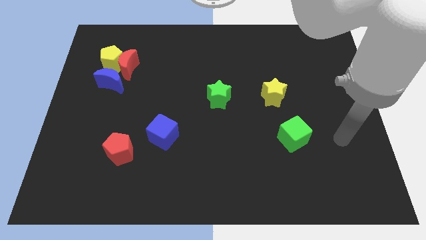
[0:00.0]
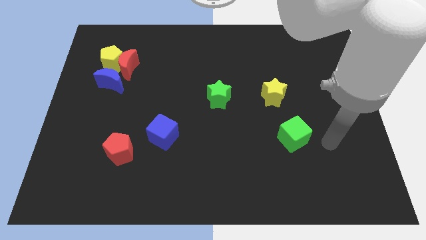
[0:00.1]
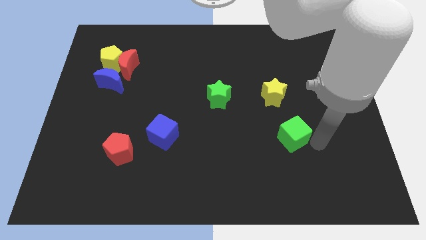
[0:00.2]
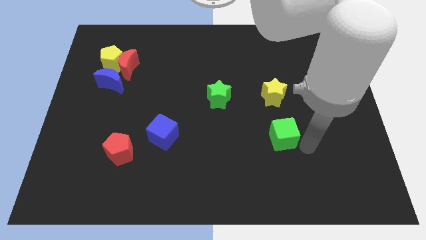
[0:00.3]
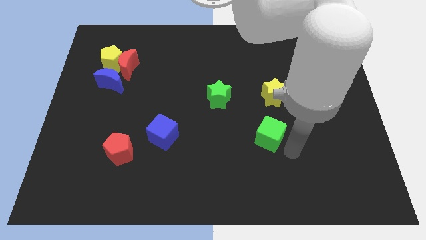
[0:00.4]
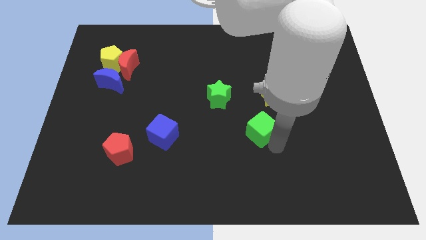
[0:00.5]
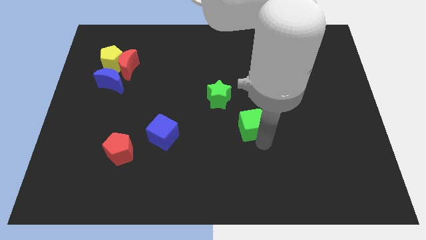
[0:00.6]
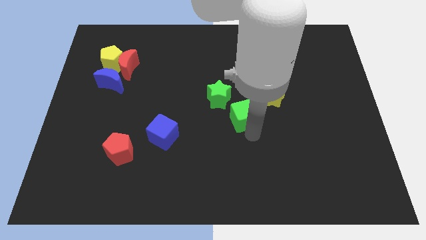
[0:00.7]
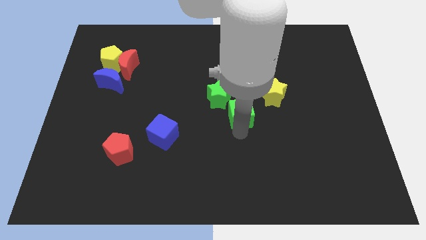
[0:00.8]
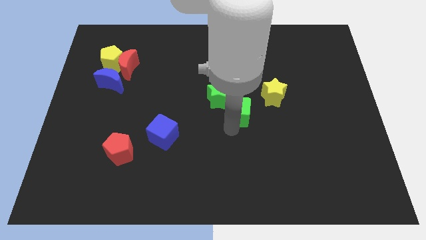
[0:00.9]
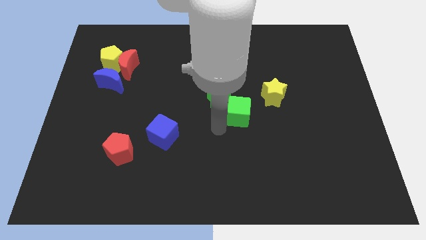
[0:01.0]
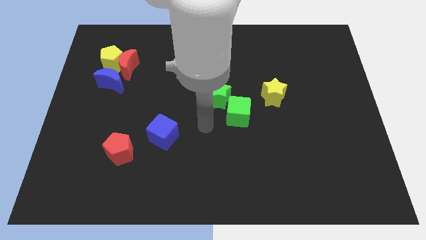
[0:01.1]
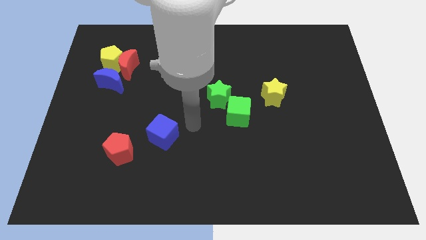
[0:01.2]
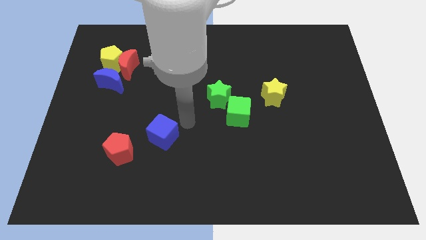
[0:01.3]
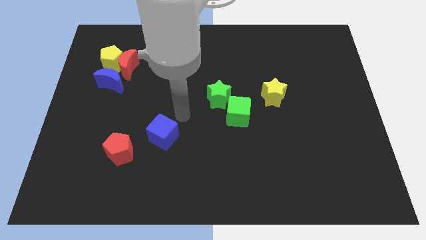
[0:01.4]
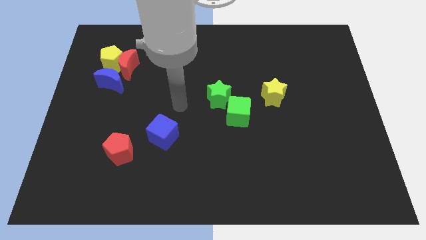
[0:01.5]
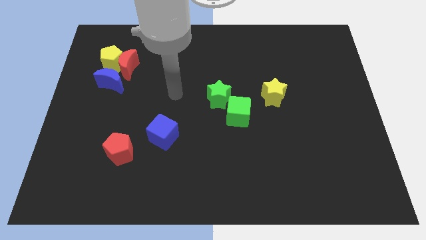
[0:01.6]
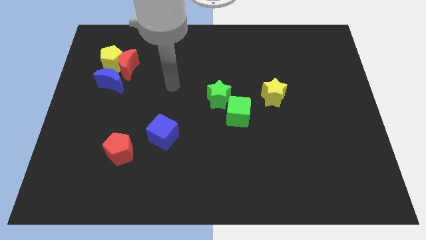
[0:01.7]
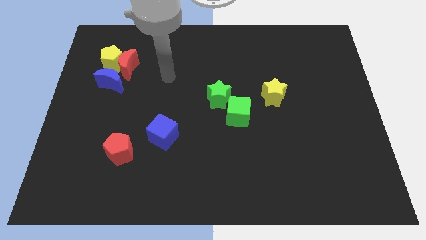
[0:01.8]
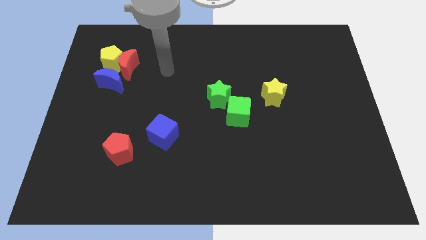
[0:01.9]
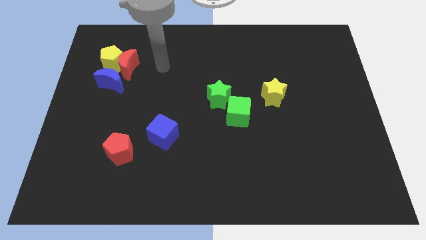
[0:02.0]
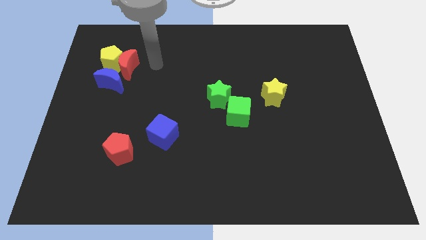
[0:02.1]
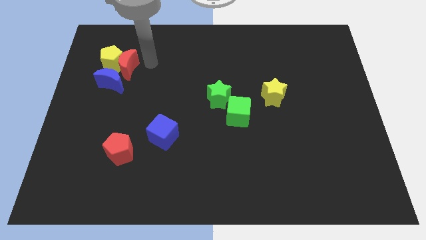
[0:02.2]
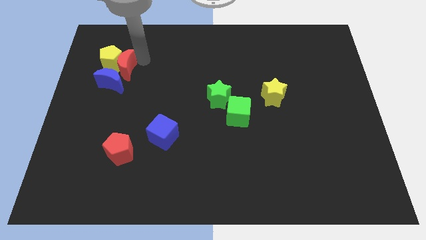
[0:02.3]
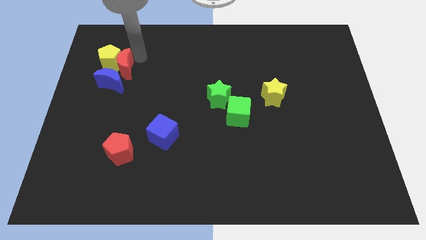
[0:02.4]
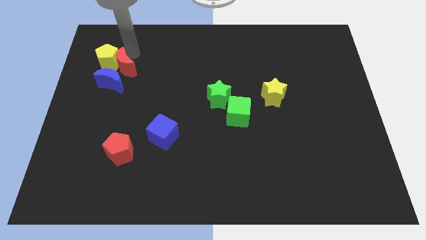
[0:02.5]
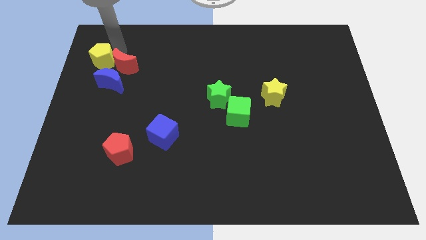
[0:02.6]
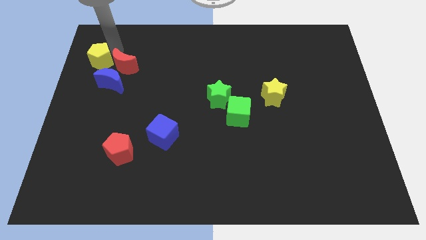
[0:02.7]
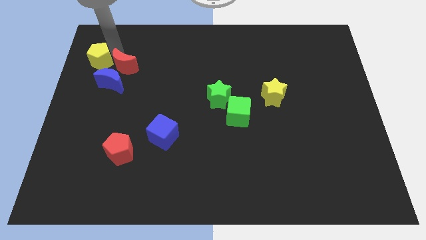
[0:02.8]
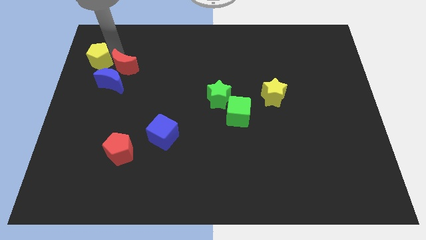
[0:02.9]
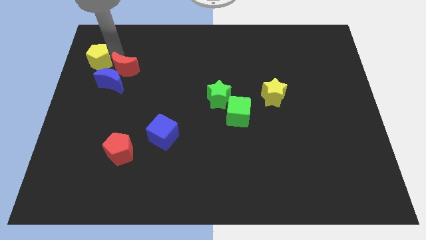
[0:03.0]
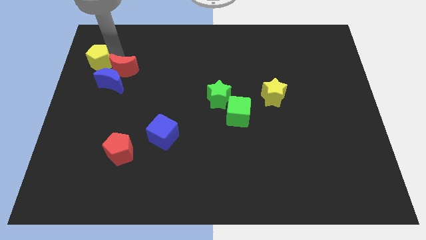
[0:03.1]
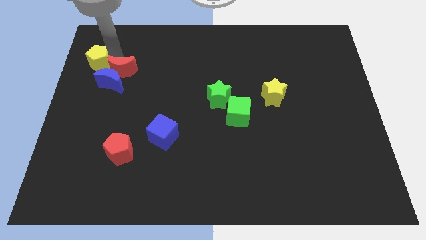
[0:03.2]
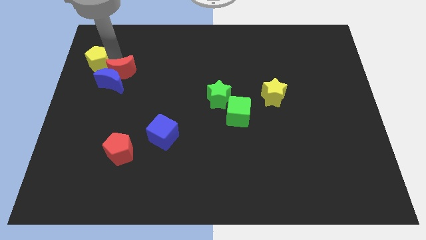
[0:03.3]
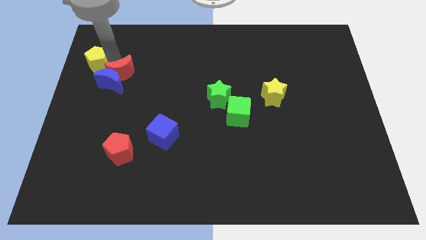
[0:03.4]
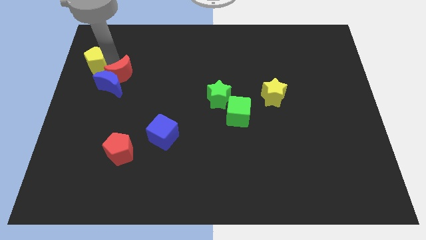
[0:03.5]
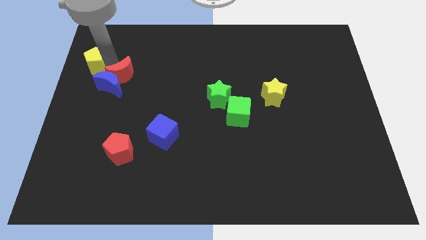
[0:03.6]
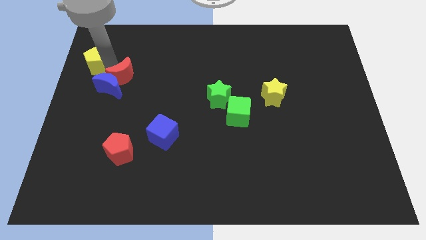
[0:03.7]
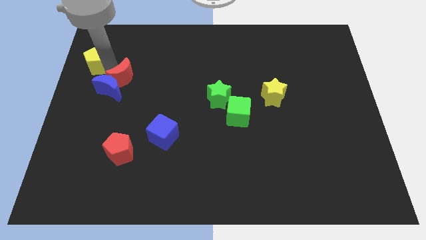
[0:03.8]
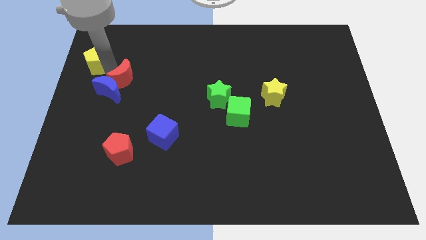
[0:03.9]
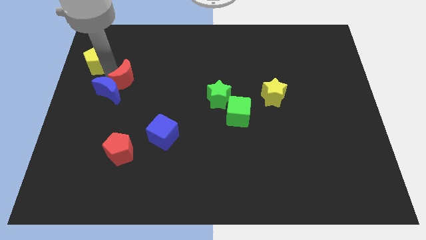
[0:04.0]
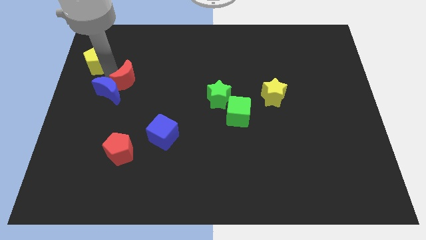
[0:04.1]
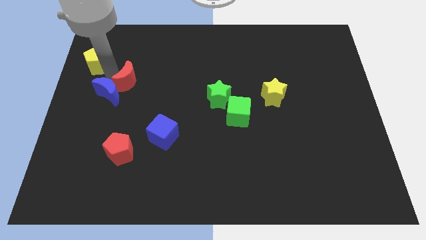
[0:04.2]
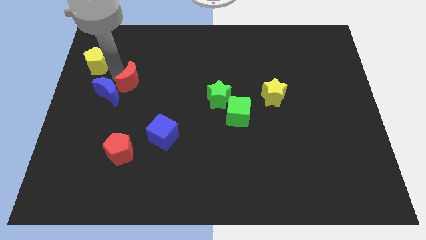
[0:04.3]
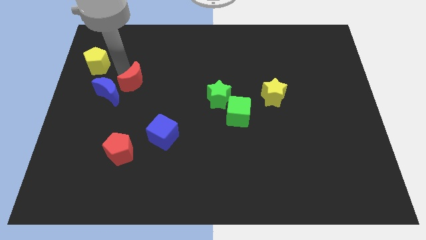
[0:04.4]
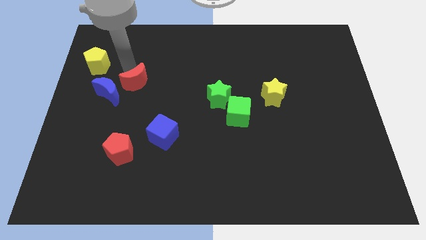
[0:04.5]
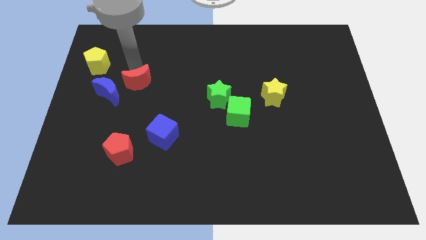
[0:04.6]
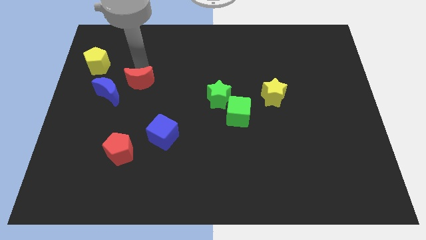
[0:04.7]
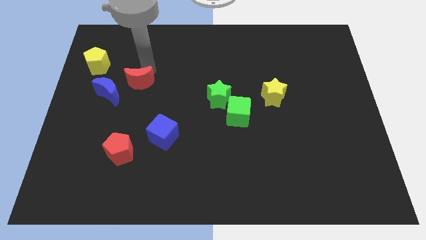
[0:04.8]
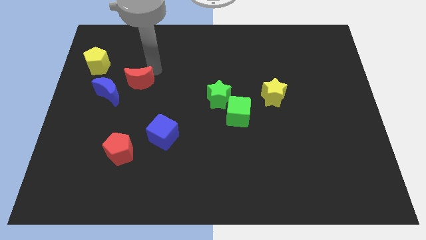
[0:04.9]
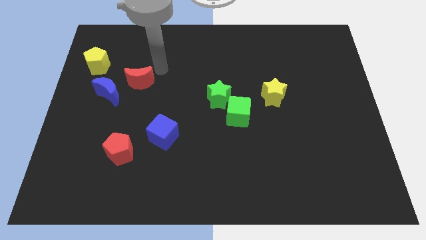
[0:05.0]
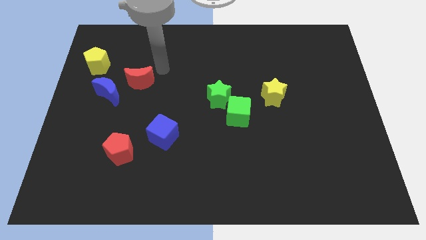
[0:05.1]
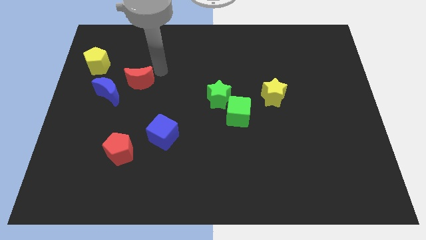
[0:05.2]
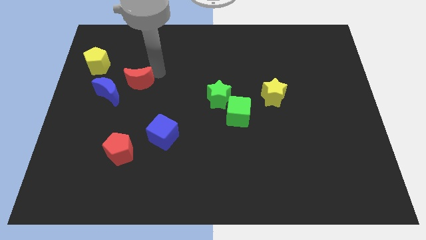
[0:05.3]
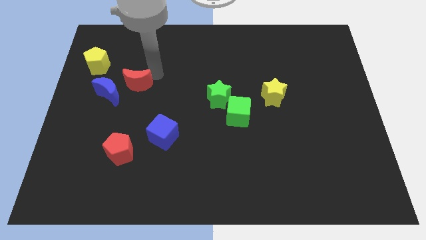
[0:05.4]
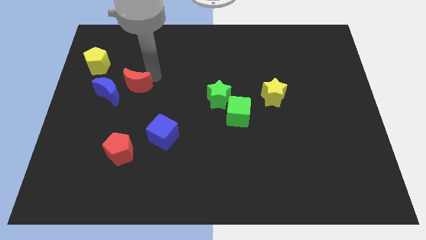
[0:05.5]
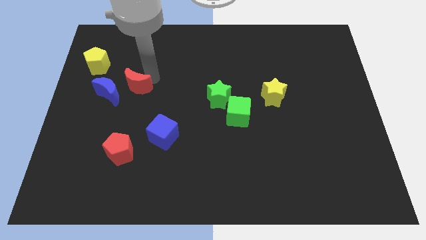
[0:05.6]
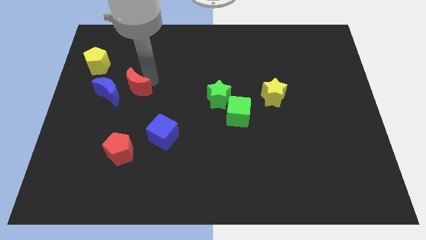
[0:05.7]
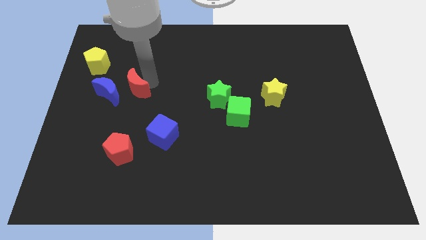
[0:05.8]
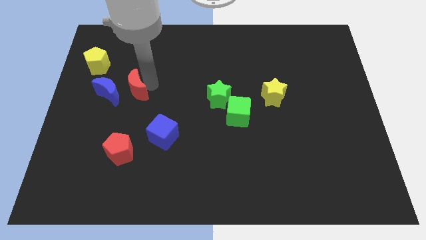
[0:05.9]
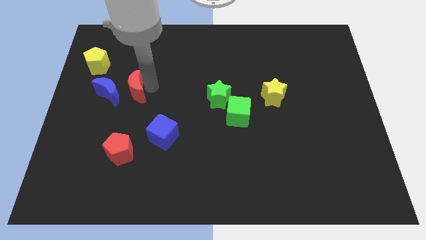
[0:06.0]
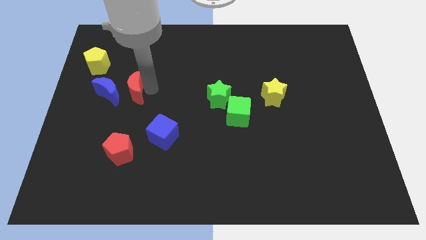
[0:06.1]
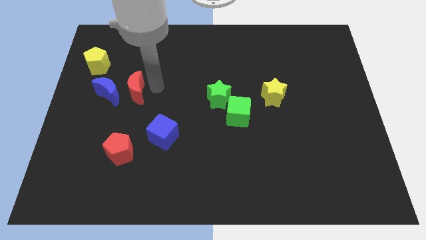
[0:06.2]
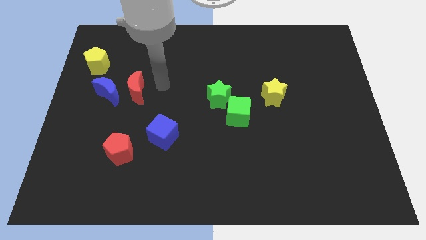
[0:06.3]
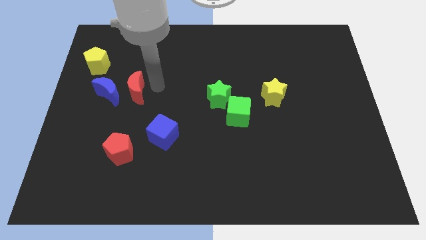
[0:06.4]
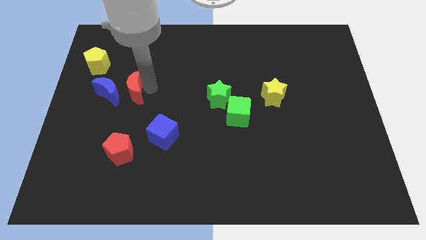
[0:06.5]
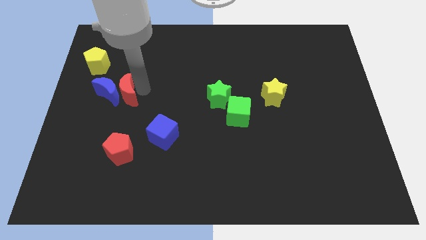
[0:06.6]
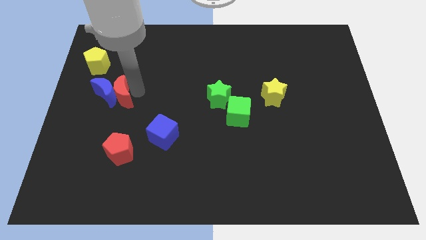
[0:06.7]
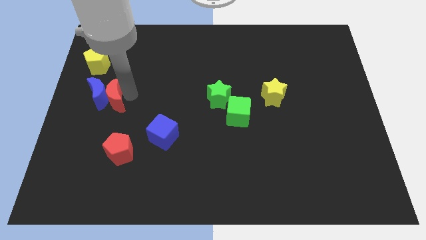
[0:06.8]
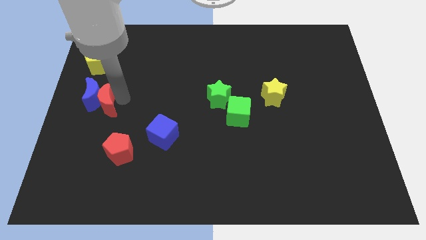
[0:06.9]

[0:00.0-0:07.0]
push the red moon to the center left

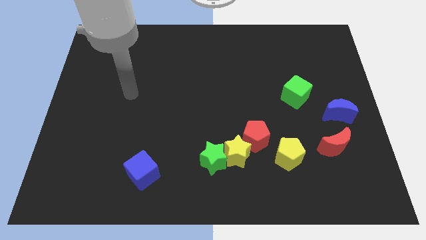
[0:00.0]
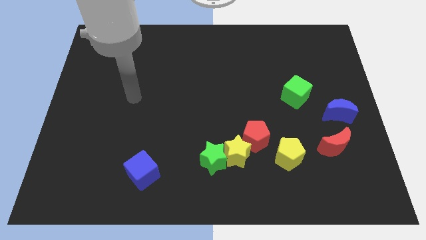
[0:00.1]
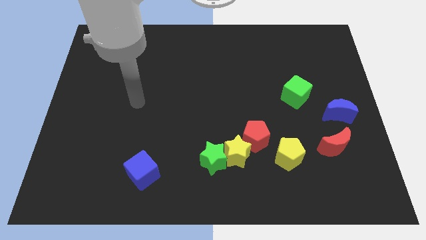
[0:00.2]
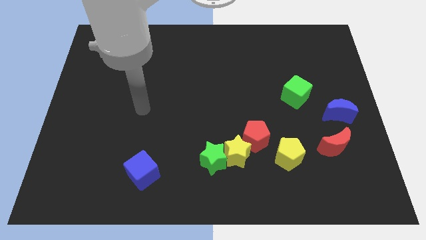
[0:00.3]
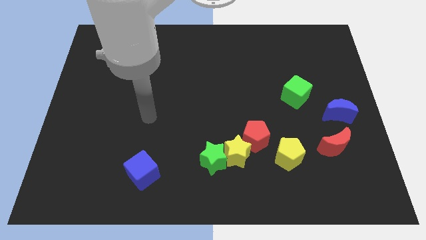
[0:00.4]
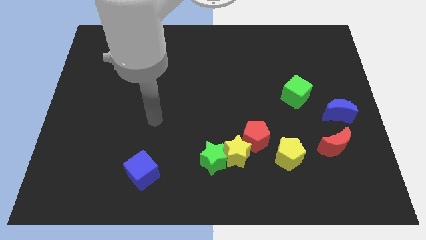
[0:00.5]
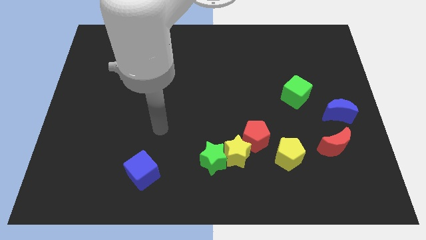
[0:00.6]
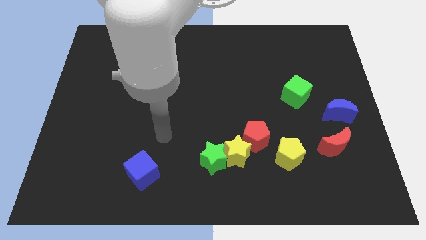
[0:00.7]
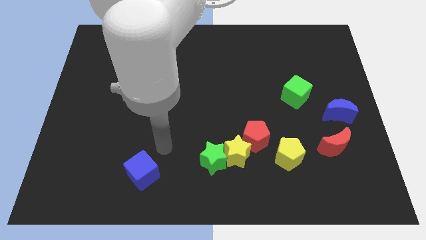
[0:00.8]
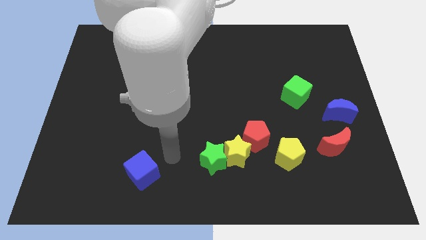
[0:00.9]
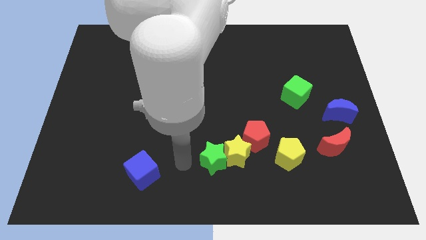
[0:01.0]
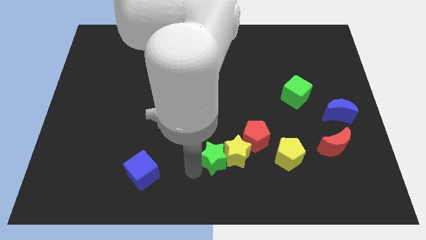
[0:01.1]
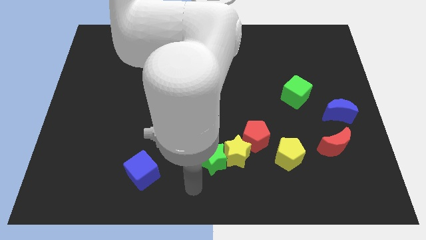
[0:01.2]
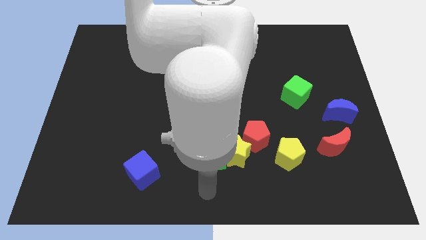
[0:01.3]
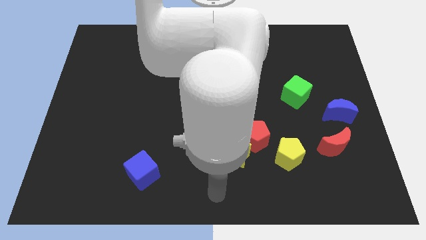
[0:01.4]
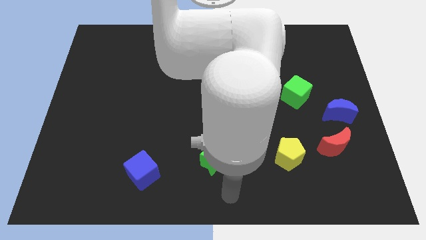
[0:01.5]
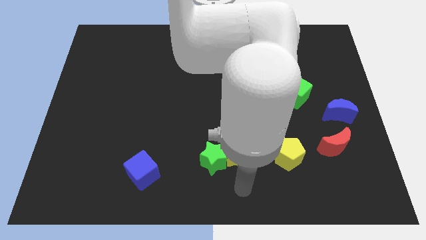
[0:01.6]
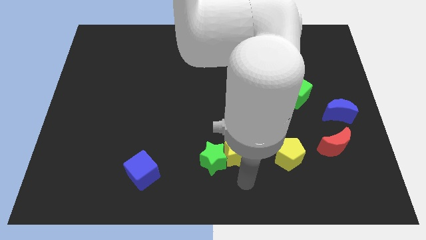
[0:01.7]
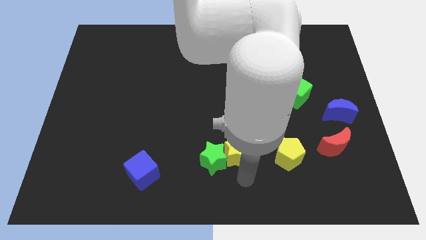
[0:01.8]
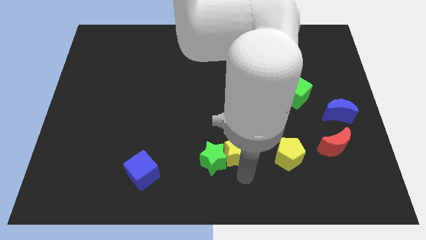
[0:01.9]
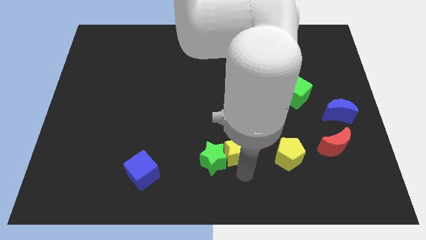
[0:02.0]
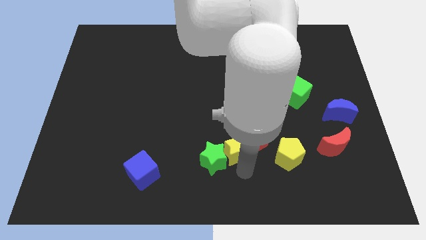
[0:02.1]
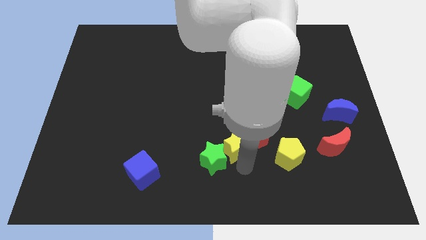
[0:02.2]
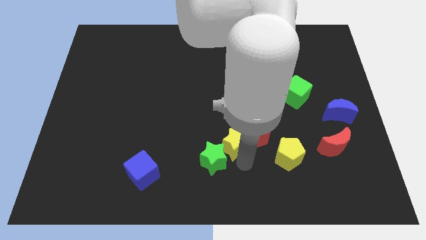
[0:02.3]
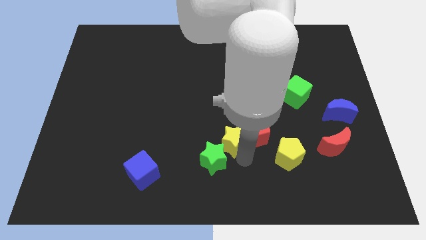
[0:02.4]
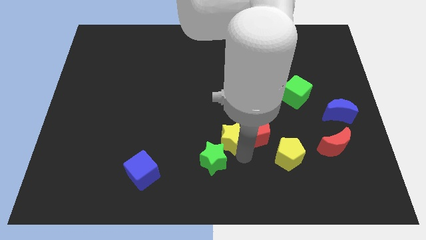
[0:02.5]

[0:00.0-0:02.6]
push the yellow star to the middle
